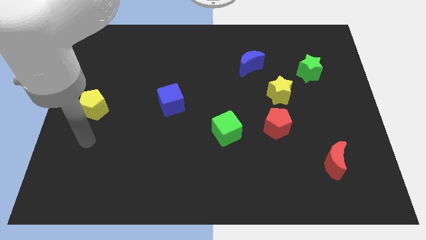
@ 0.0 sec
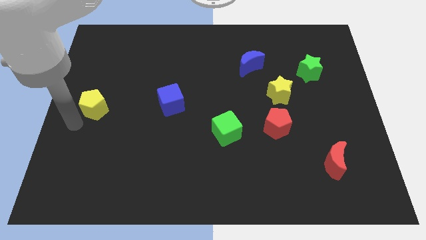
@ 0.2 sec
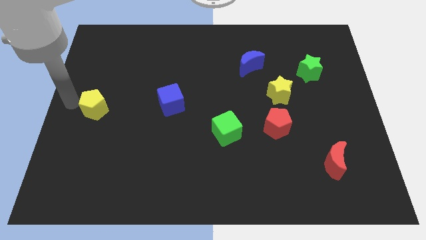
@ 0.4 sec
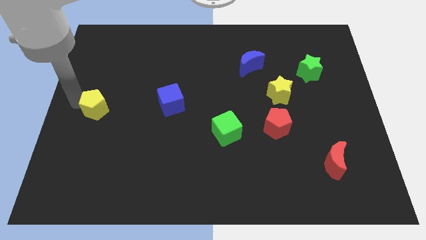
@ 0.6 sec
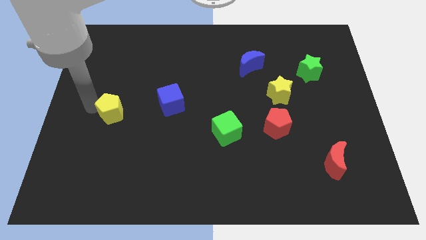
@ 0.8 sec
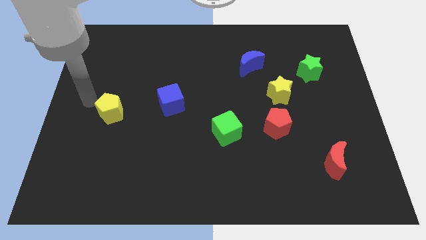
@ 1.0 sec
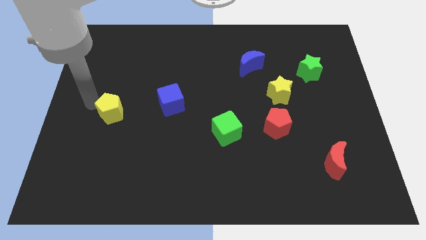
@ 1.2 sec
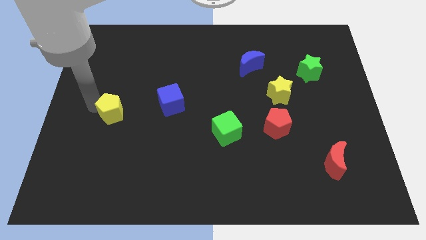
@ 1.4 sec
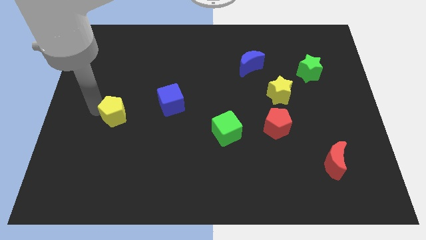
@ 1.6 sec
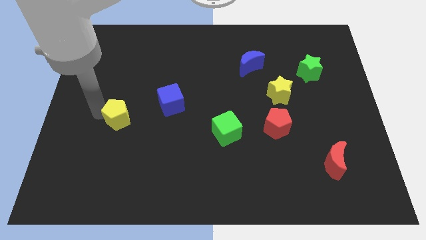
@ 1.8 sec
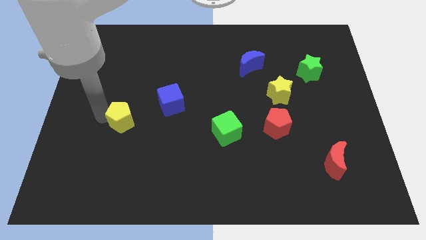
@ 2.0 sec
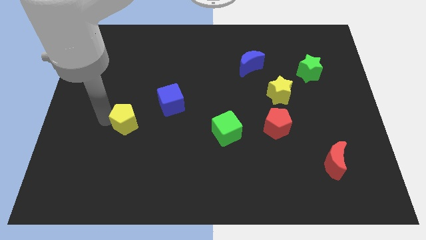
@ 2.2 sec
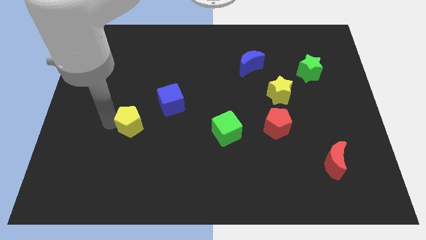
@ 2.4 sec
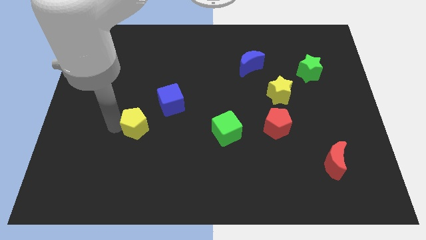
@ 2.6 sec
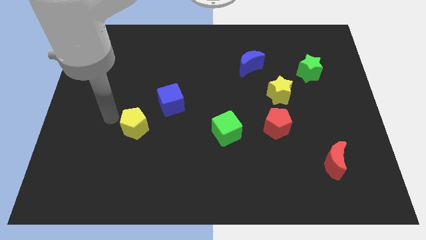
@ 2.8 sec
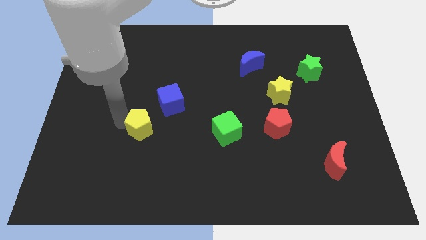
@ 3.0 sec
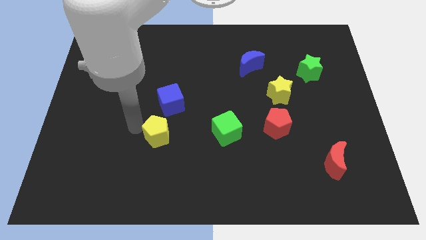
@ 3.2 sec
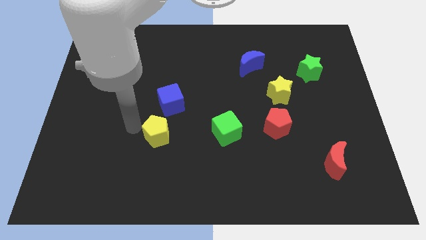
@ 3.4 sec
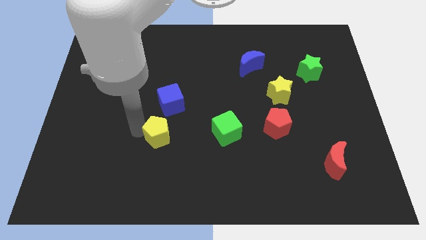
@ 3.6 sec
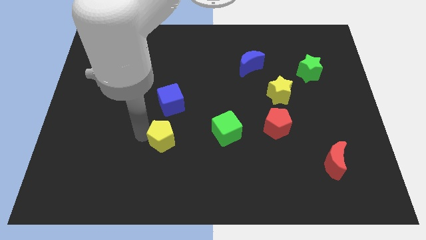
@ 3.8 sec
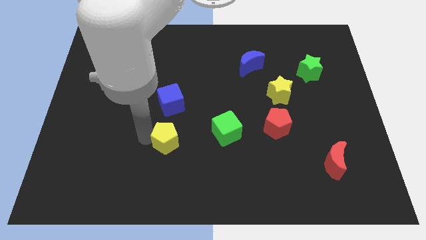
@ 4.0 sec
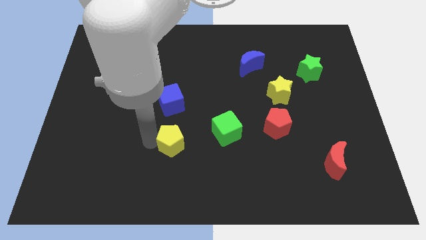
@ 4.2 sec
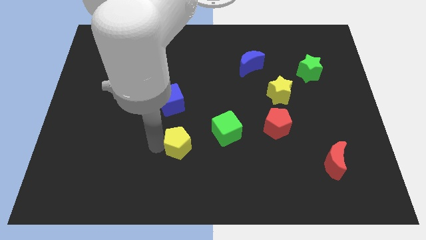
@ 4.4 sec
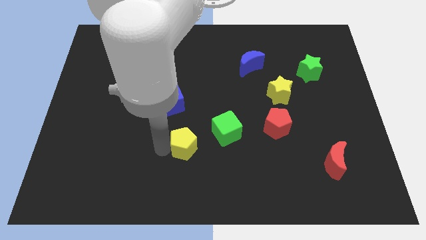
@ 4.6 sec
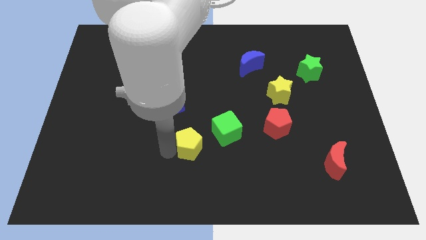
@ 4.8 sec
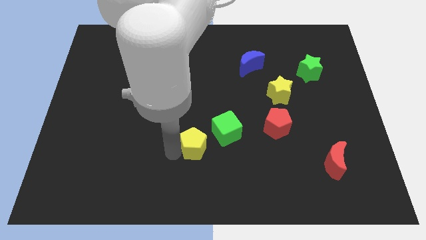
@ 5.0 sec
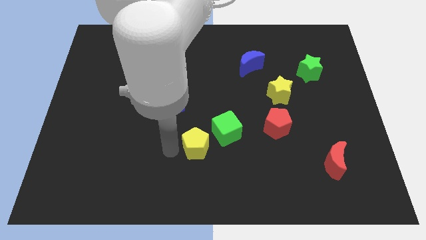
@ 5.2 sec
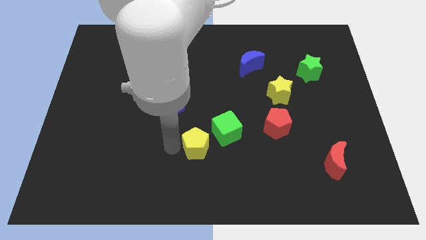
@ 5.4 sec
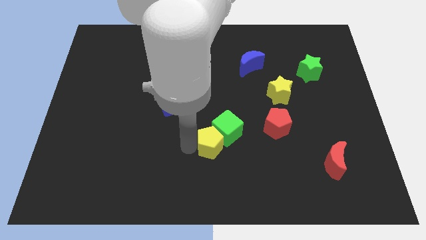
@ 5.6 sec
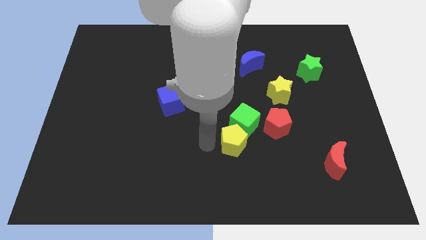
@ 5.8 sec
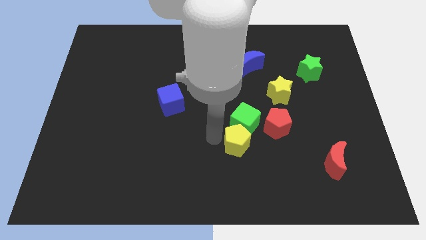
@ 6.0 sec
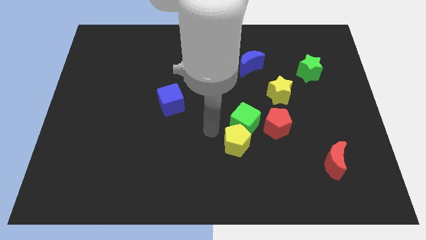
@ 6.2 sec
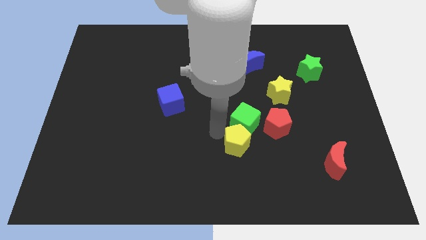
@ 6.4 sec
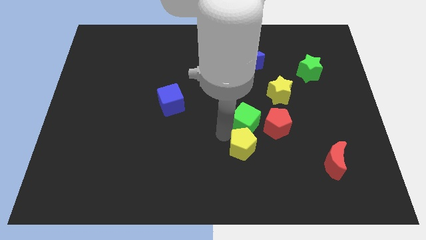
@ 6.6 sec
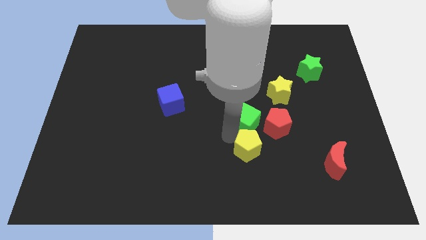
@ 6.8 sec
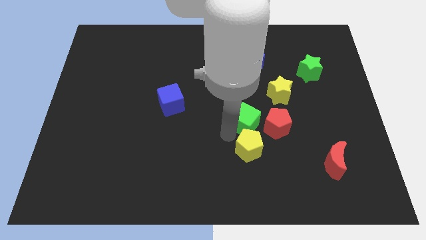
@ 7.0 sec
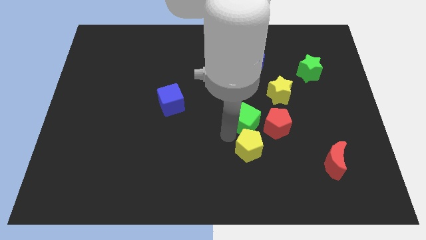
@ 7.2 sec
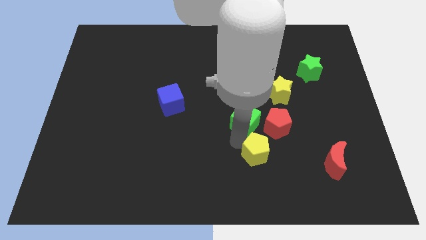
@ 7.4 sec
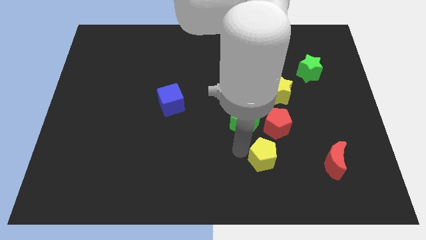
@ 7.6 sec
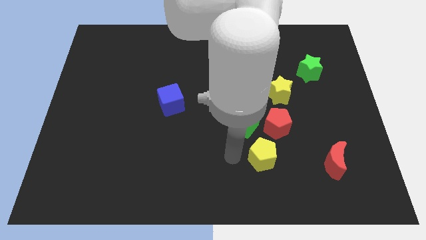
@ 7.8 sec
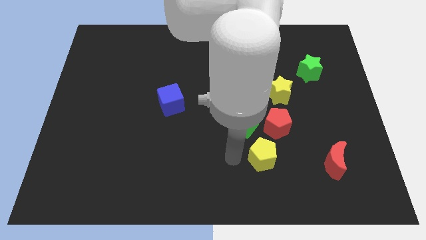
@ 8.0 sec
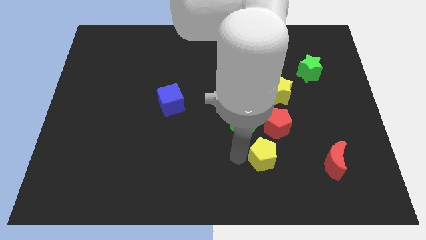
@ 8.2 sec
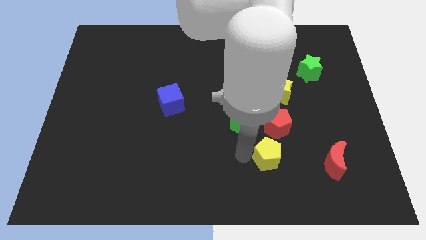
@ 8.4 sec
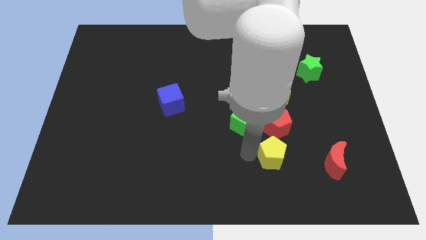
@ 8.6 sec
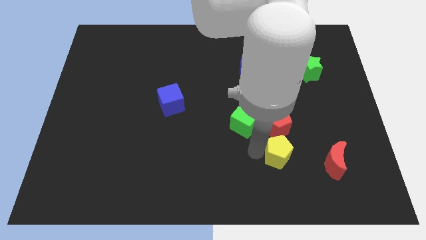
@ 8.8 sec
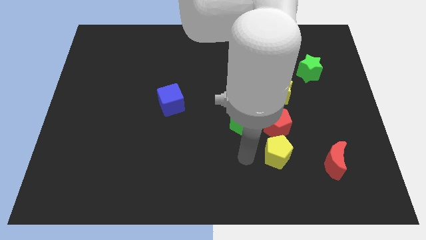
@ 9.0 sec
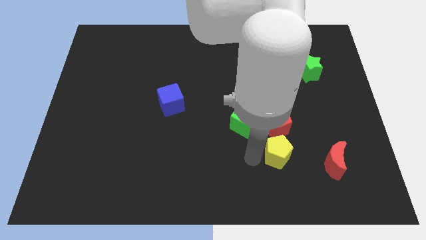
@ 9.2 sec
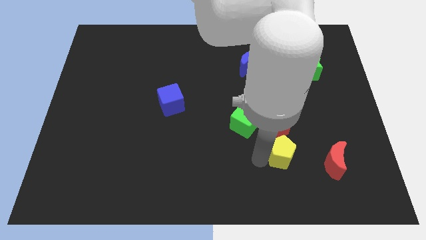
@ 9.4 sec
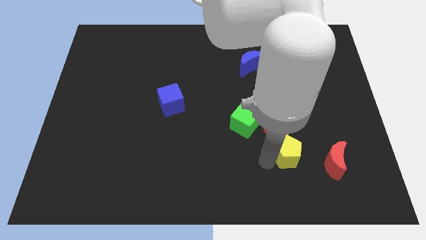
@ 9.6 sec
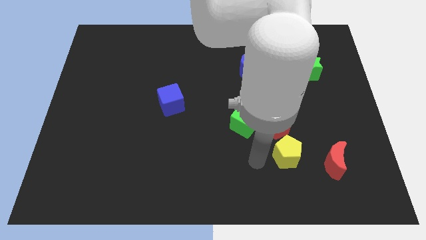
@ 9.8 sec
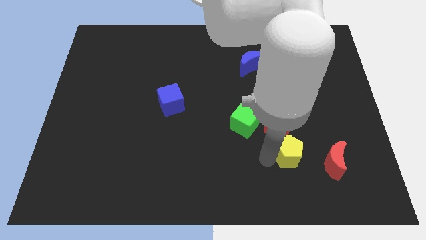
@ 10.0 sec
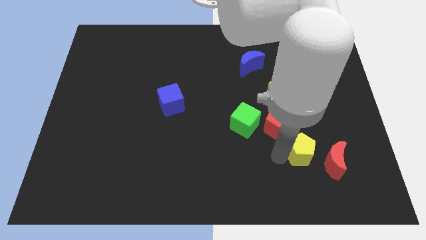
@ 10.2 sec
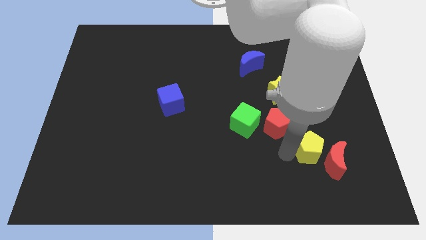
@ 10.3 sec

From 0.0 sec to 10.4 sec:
push the yellow pentagon towards the red moon

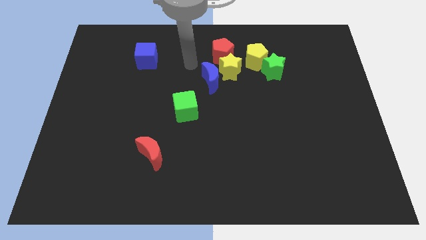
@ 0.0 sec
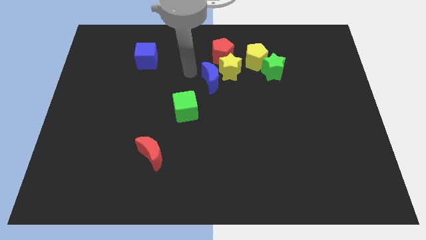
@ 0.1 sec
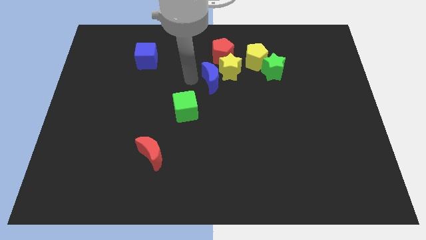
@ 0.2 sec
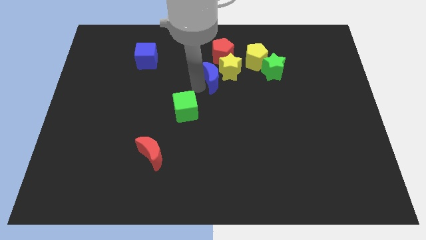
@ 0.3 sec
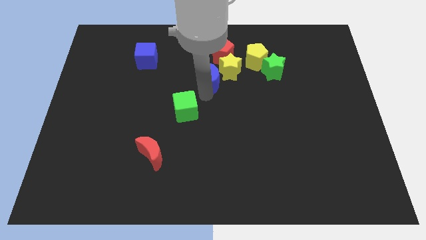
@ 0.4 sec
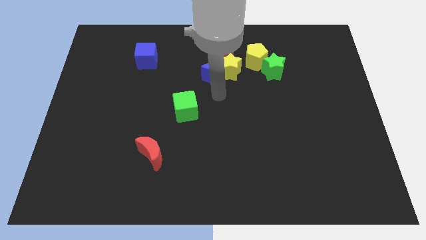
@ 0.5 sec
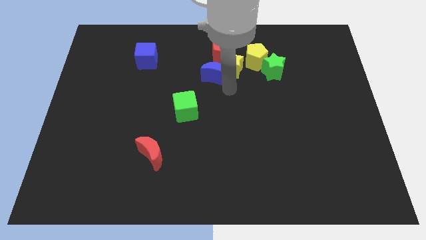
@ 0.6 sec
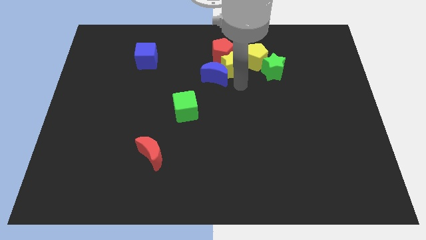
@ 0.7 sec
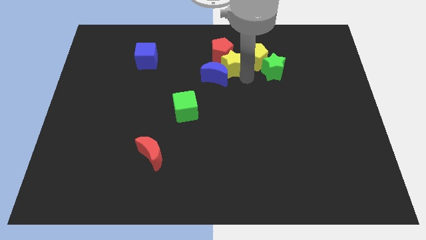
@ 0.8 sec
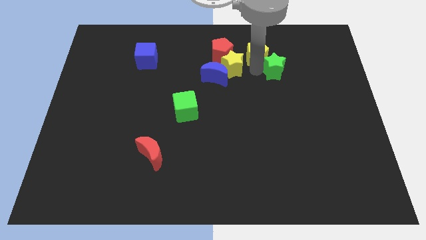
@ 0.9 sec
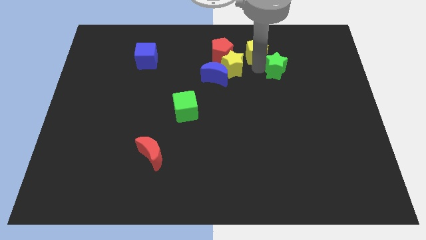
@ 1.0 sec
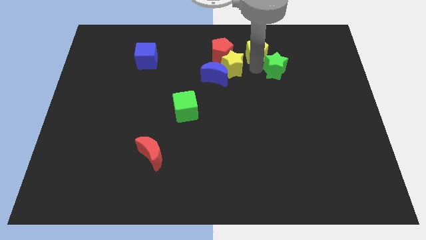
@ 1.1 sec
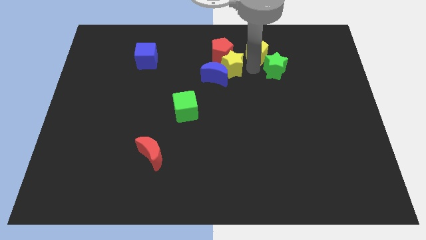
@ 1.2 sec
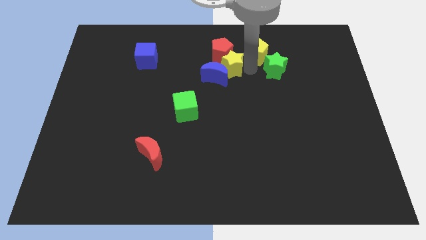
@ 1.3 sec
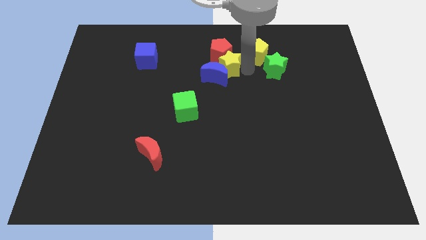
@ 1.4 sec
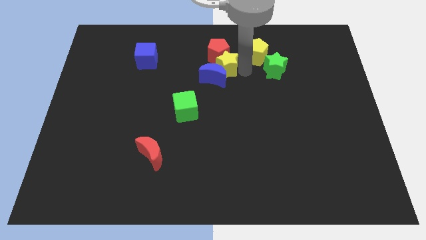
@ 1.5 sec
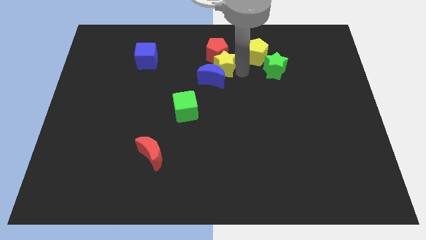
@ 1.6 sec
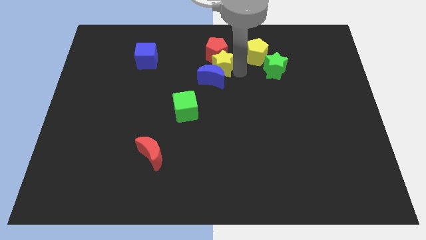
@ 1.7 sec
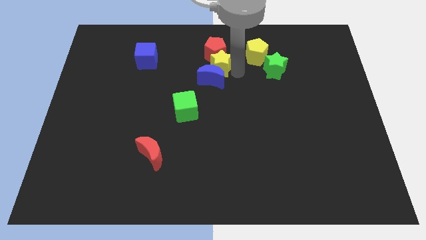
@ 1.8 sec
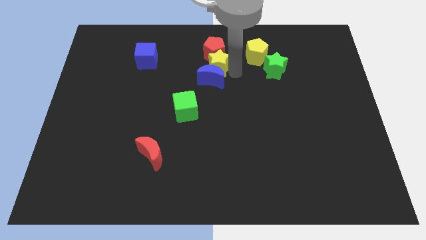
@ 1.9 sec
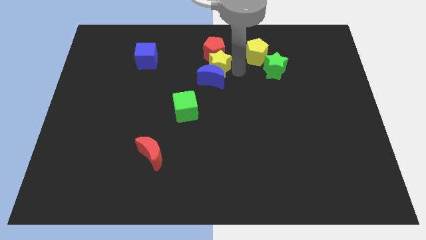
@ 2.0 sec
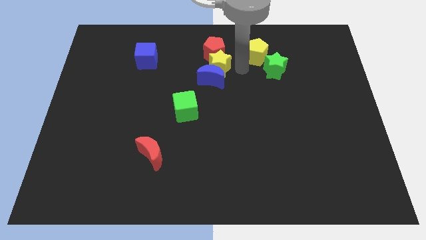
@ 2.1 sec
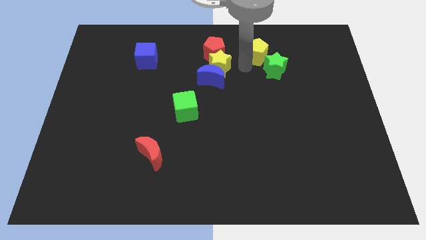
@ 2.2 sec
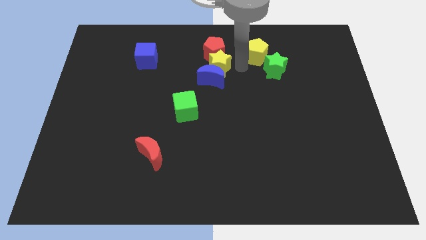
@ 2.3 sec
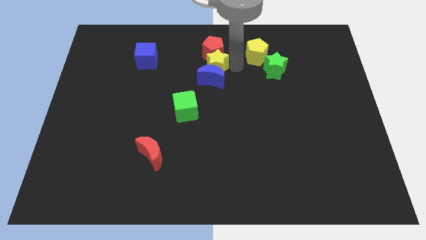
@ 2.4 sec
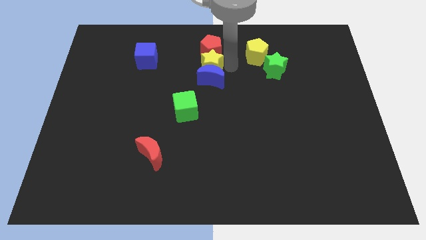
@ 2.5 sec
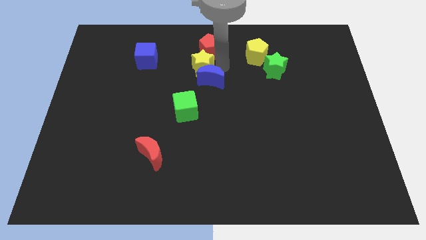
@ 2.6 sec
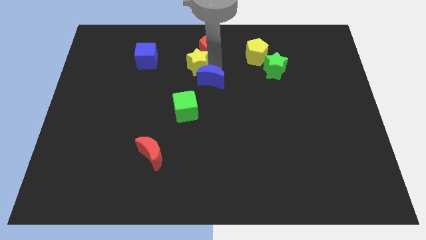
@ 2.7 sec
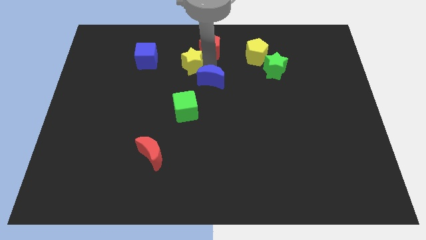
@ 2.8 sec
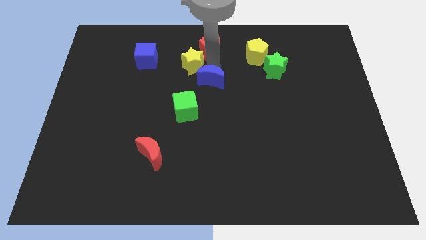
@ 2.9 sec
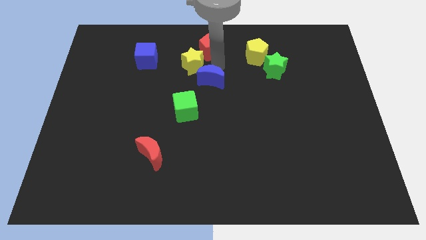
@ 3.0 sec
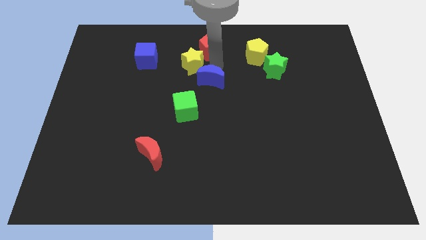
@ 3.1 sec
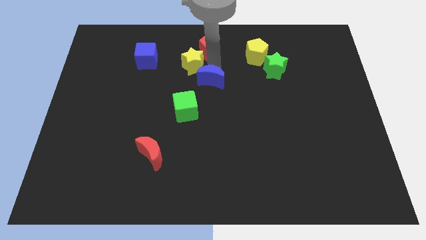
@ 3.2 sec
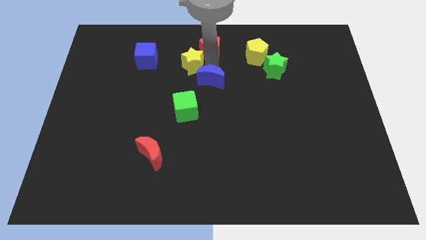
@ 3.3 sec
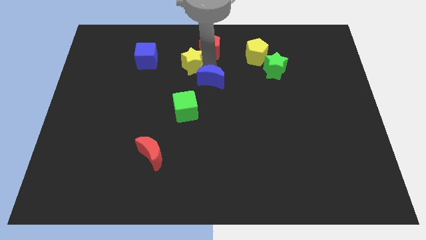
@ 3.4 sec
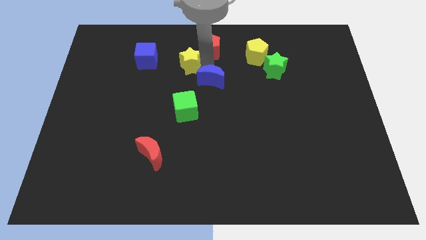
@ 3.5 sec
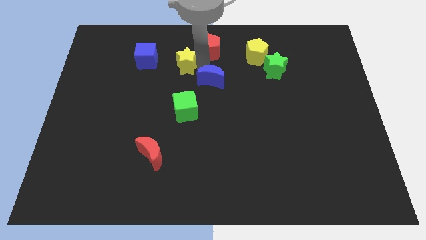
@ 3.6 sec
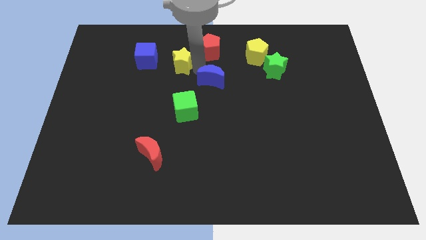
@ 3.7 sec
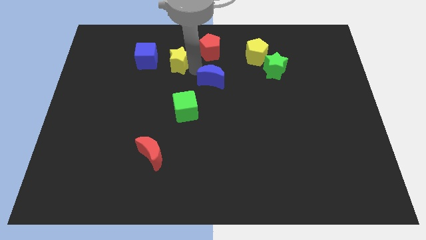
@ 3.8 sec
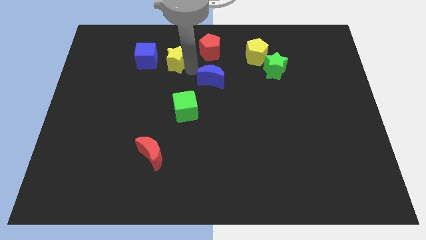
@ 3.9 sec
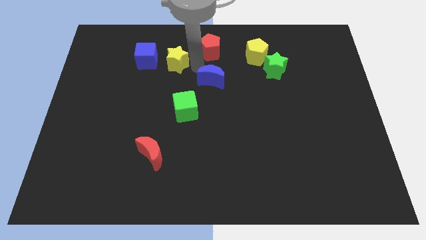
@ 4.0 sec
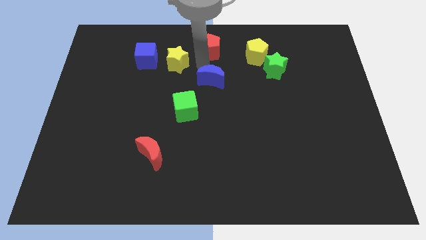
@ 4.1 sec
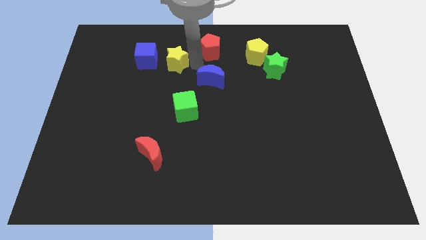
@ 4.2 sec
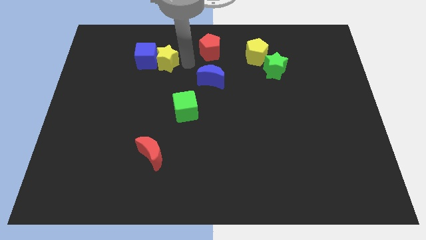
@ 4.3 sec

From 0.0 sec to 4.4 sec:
slide the yellow star next to the blue cube
